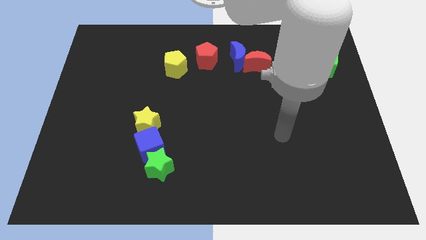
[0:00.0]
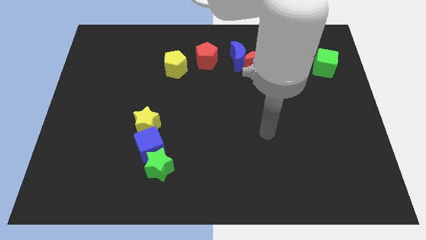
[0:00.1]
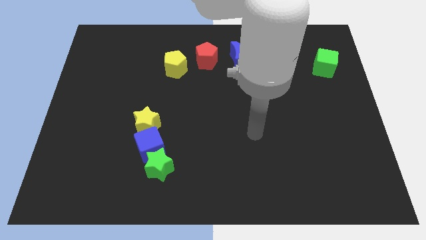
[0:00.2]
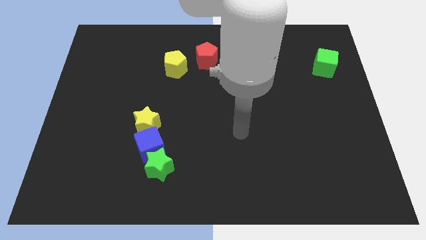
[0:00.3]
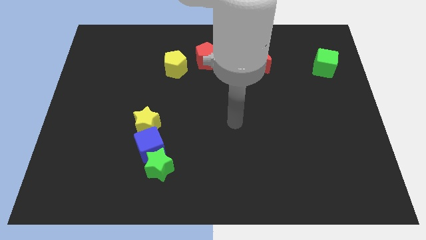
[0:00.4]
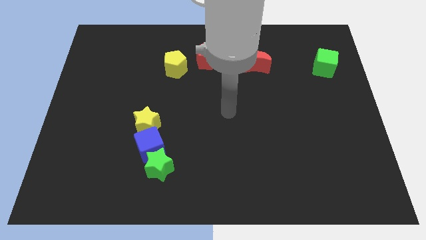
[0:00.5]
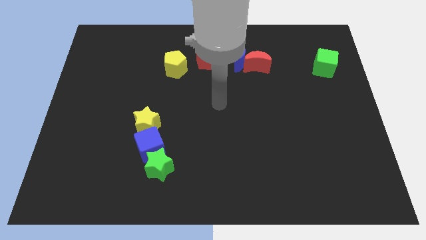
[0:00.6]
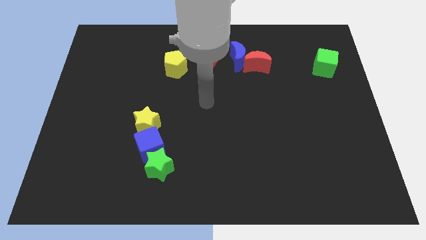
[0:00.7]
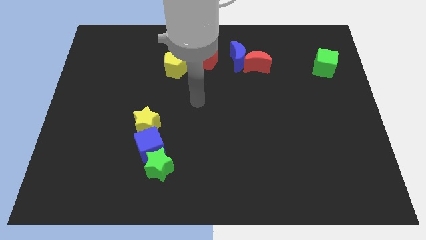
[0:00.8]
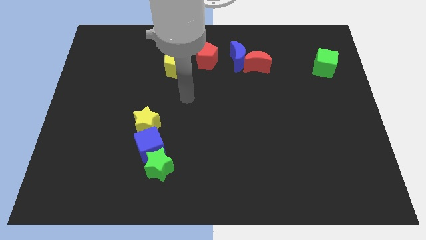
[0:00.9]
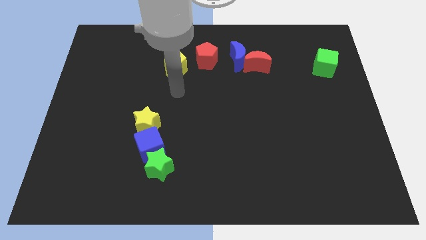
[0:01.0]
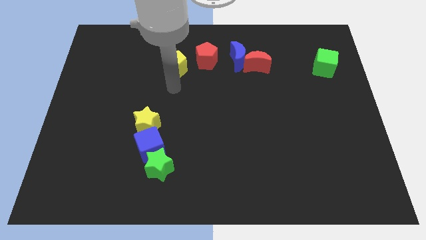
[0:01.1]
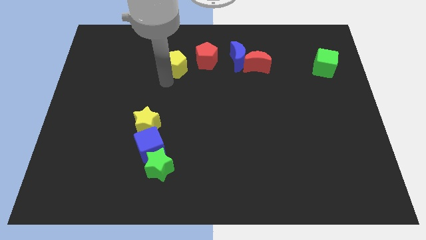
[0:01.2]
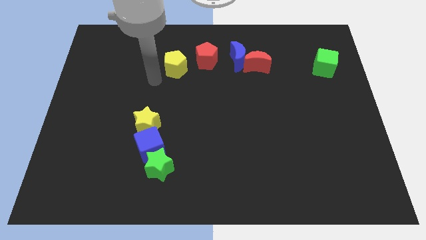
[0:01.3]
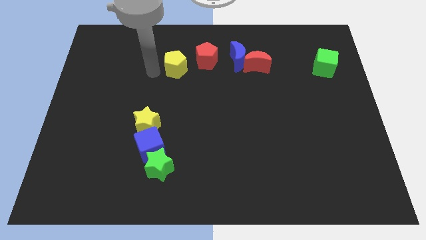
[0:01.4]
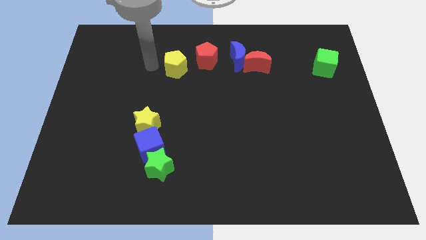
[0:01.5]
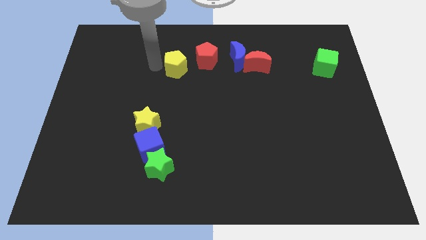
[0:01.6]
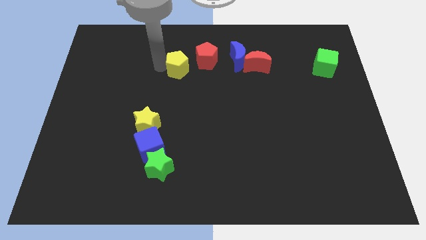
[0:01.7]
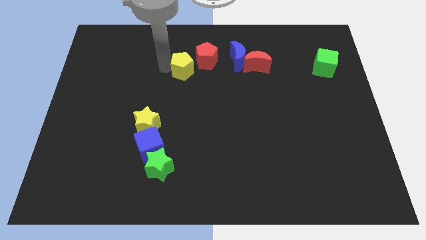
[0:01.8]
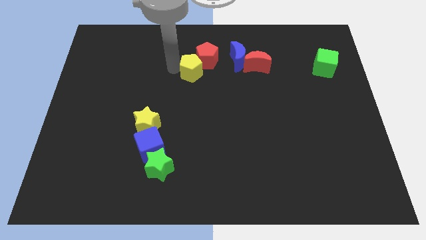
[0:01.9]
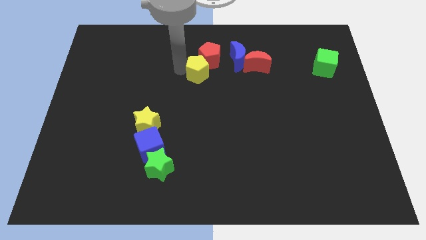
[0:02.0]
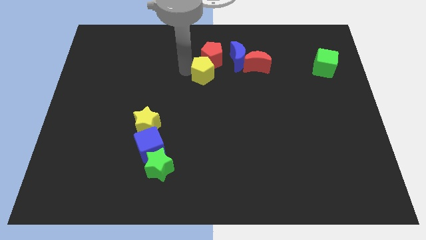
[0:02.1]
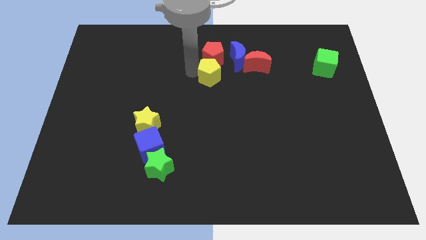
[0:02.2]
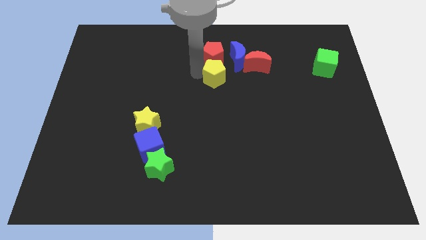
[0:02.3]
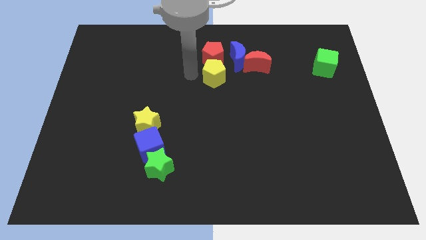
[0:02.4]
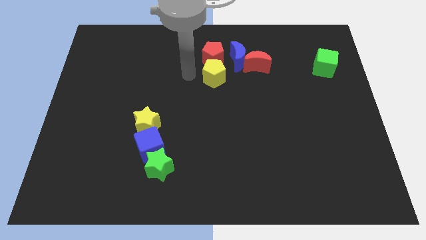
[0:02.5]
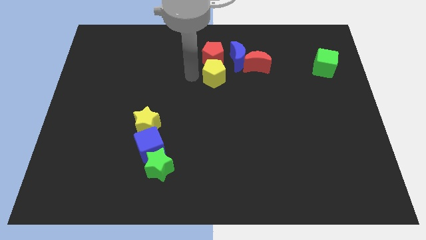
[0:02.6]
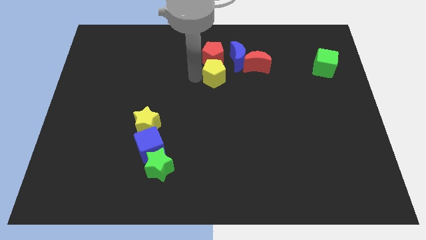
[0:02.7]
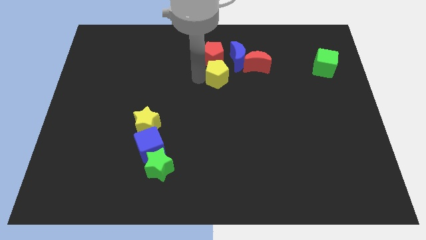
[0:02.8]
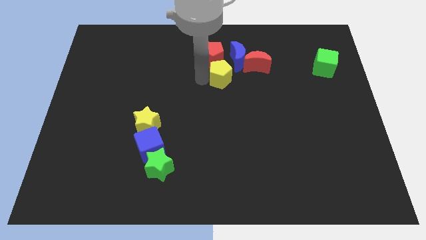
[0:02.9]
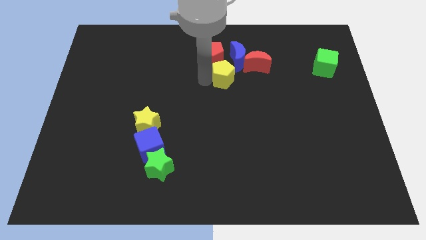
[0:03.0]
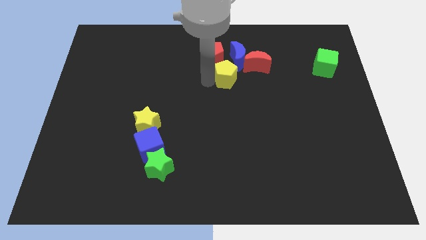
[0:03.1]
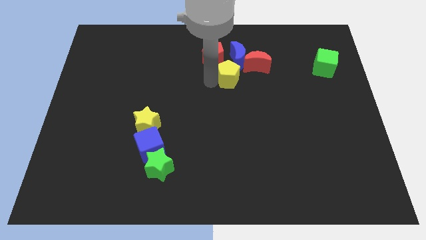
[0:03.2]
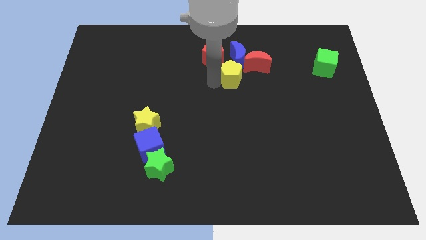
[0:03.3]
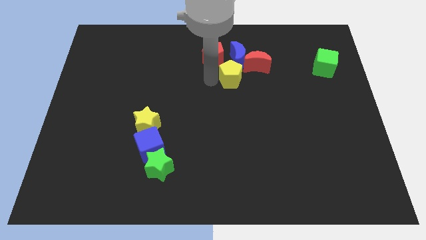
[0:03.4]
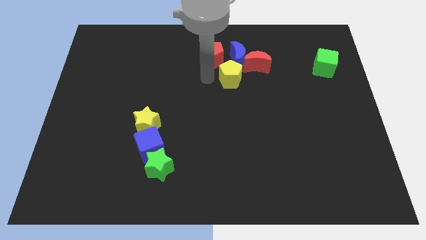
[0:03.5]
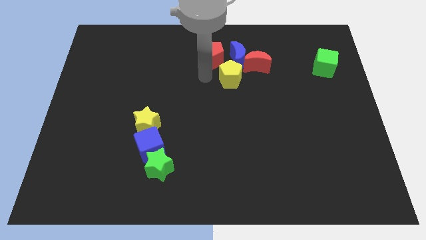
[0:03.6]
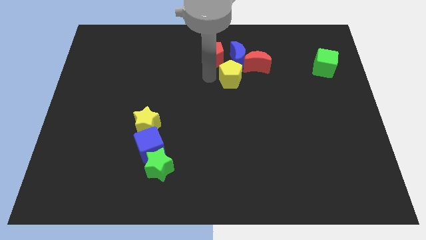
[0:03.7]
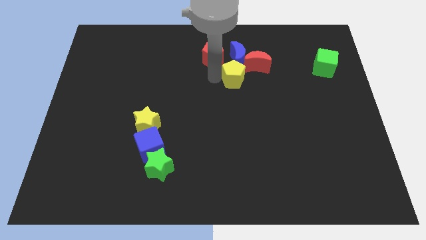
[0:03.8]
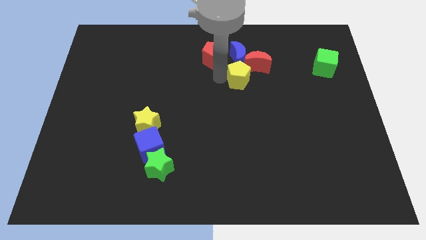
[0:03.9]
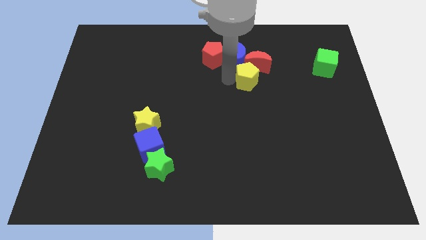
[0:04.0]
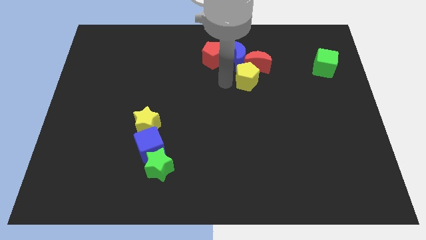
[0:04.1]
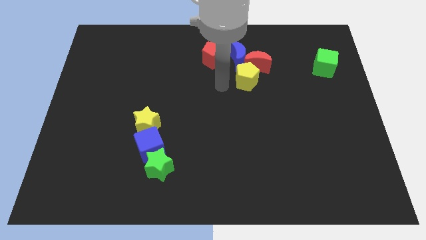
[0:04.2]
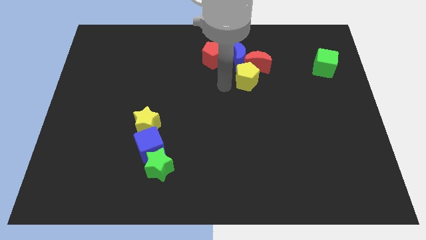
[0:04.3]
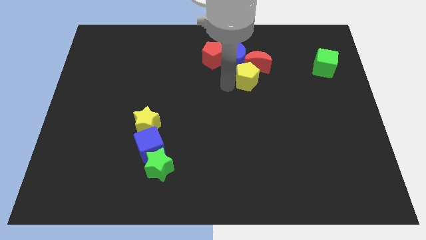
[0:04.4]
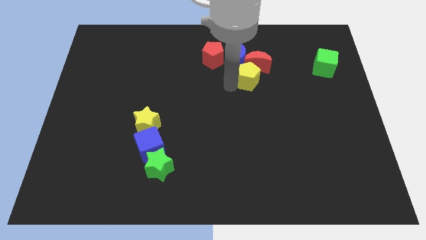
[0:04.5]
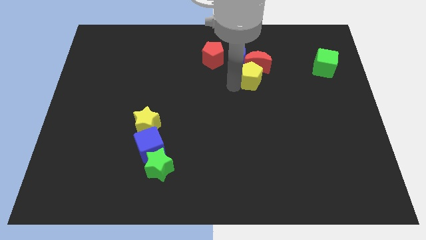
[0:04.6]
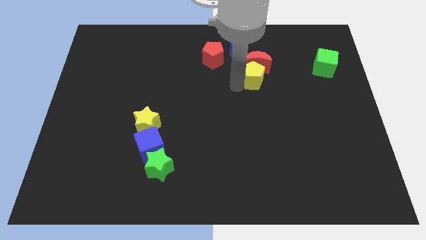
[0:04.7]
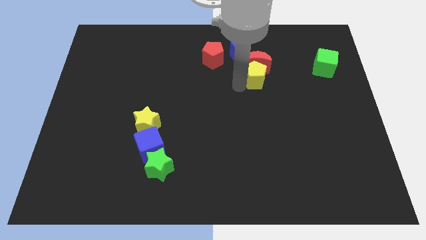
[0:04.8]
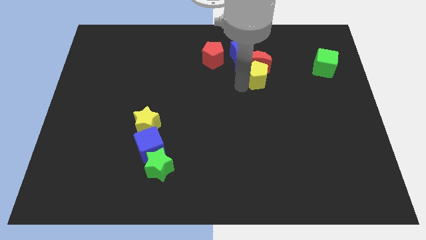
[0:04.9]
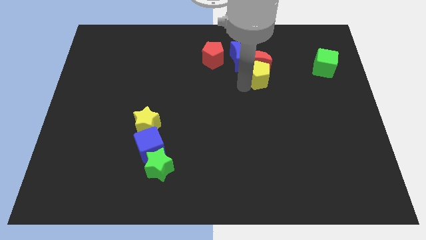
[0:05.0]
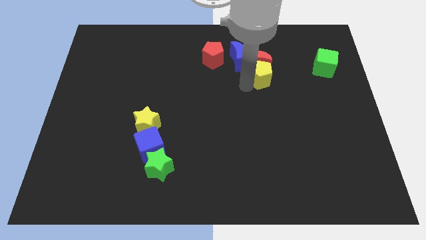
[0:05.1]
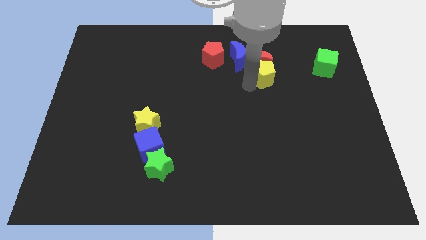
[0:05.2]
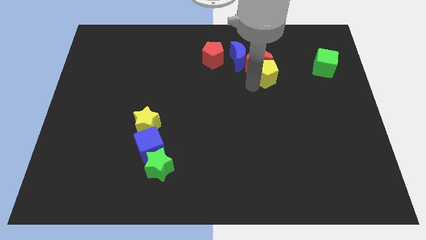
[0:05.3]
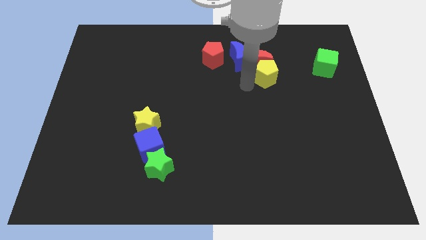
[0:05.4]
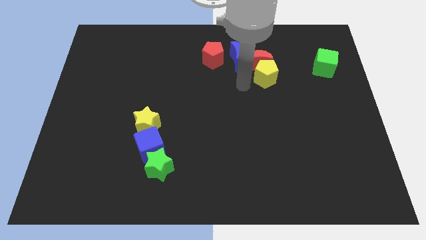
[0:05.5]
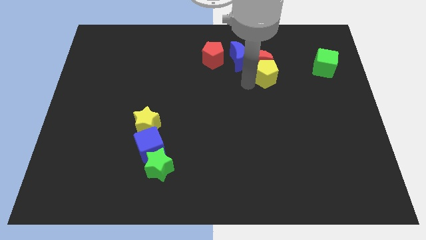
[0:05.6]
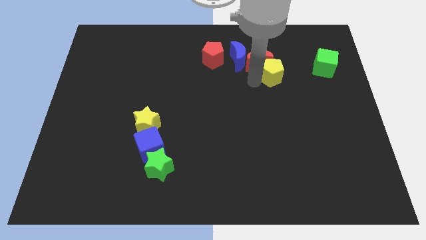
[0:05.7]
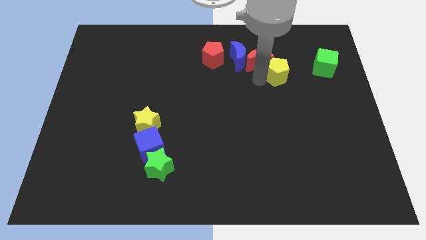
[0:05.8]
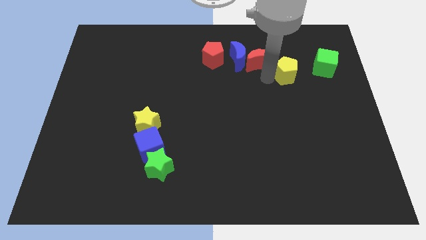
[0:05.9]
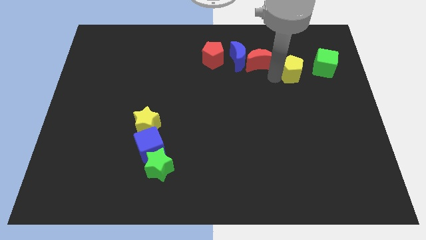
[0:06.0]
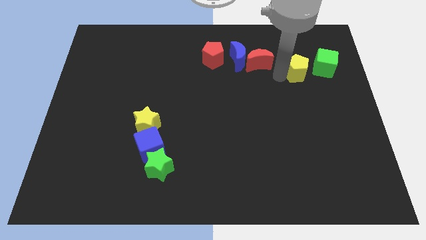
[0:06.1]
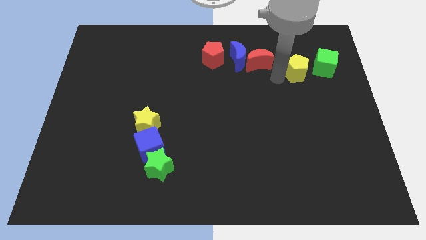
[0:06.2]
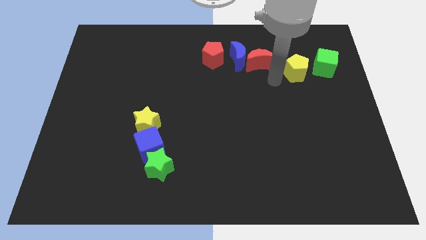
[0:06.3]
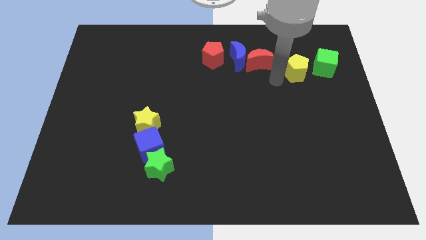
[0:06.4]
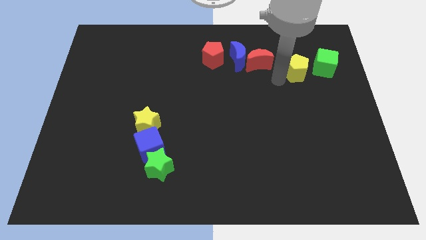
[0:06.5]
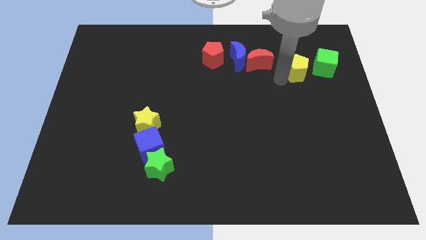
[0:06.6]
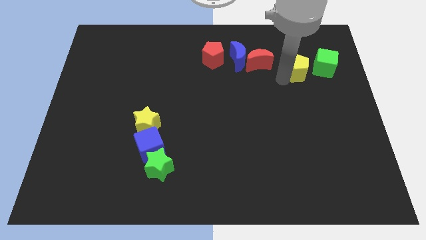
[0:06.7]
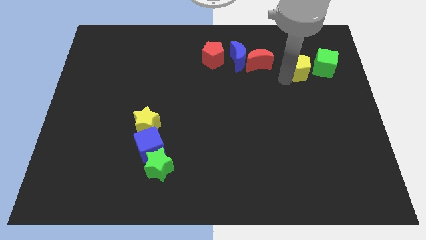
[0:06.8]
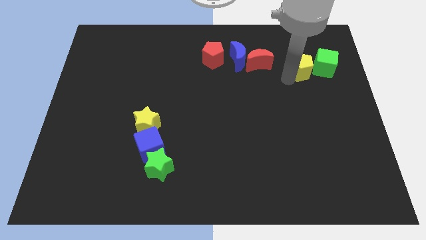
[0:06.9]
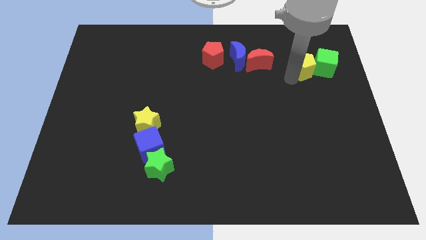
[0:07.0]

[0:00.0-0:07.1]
move the yellow pentagon towards the green cube
